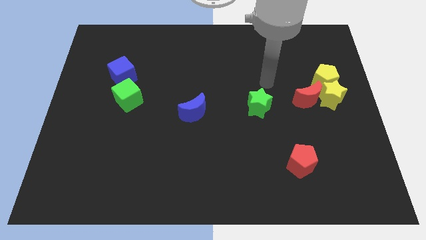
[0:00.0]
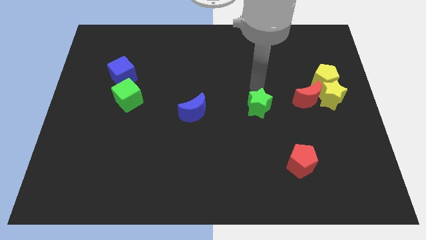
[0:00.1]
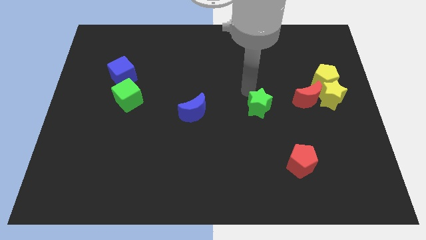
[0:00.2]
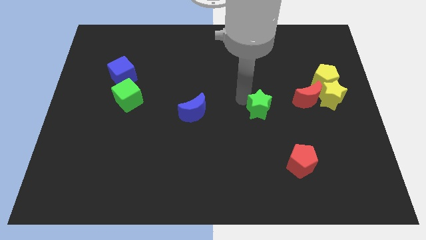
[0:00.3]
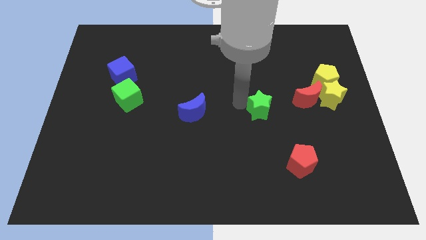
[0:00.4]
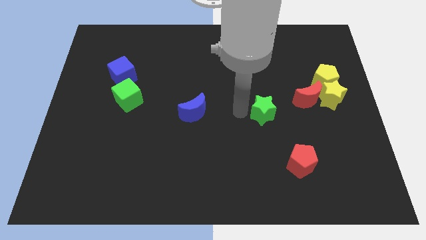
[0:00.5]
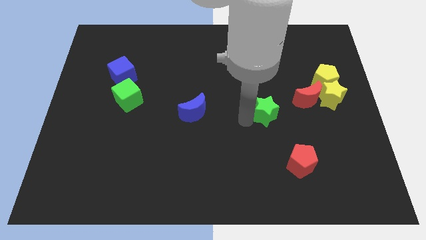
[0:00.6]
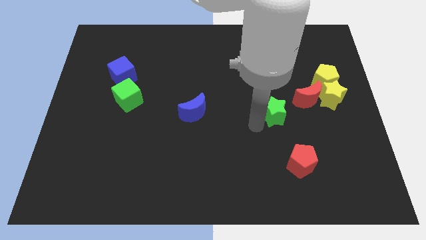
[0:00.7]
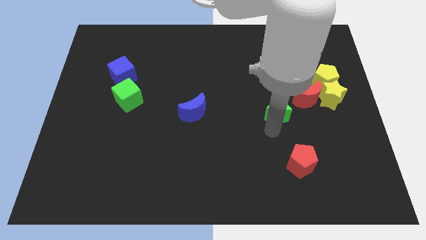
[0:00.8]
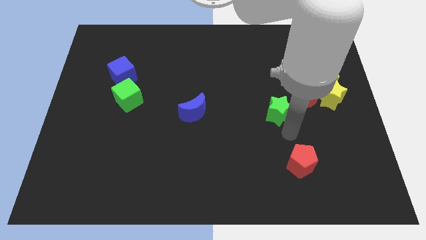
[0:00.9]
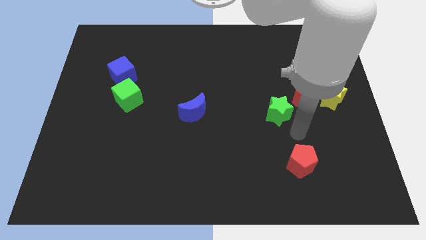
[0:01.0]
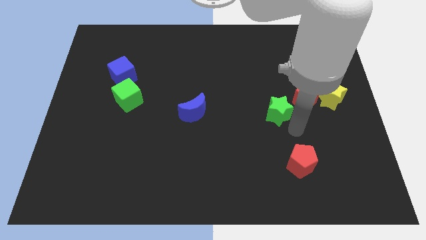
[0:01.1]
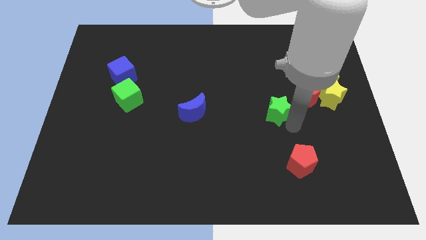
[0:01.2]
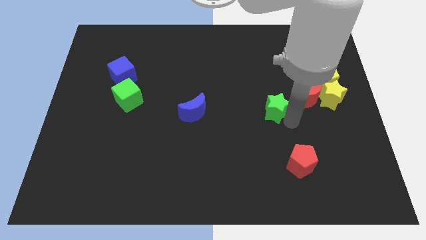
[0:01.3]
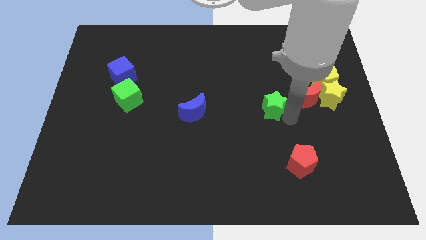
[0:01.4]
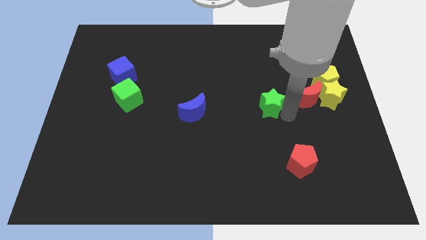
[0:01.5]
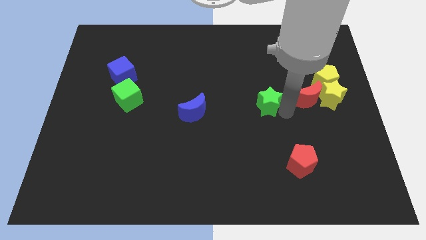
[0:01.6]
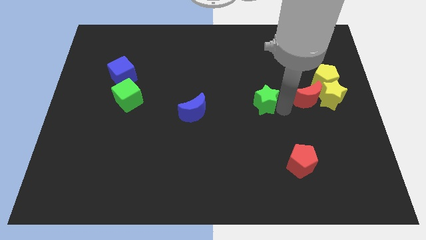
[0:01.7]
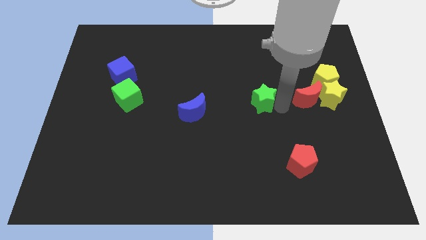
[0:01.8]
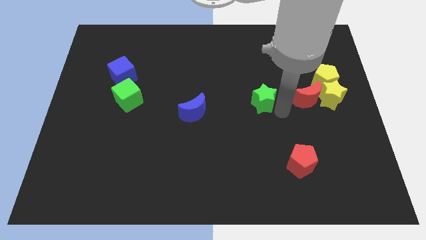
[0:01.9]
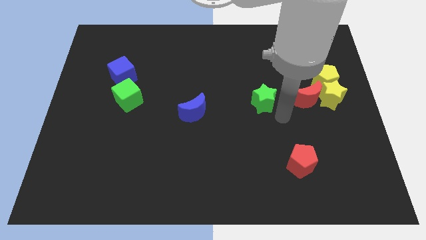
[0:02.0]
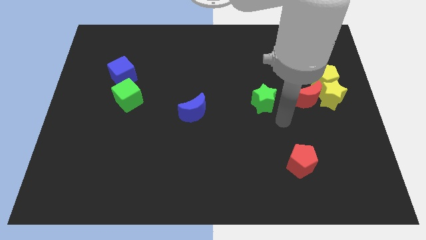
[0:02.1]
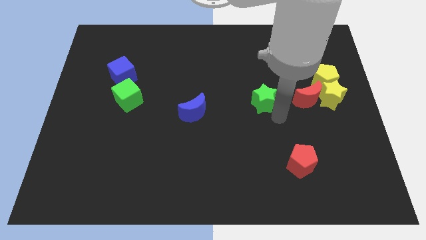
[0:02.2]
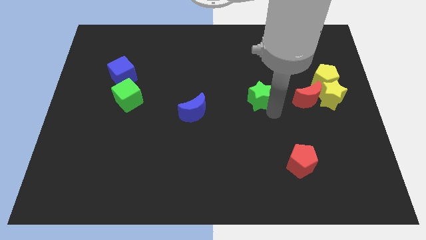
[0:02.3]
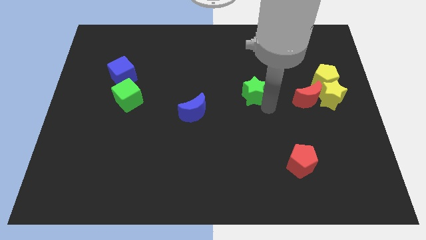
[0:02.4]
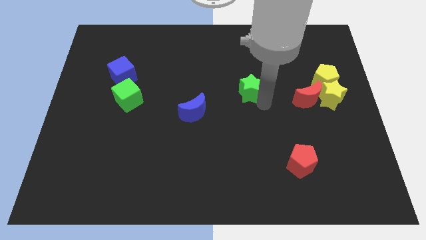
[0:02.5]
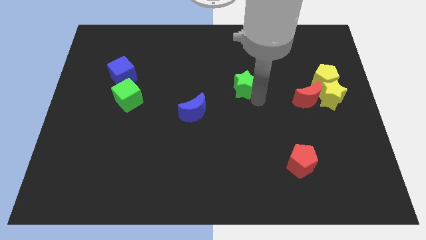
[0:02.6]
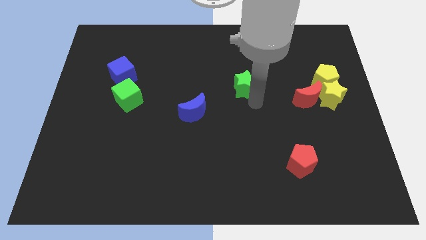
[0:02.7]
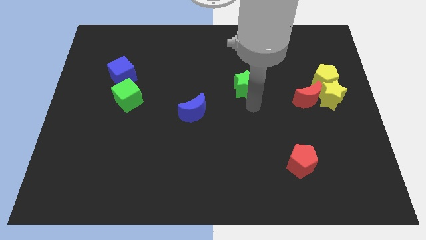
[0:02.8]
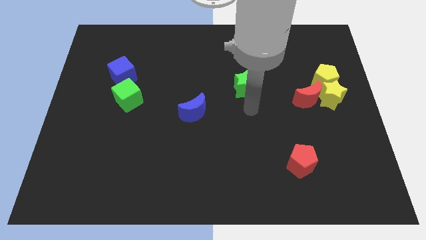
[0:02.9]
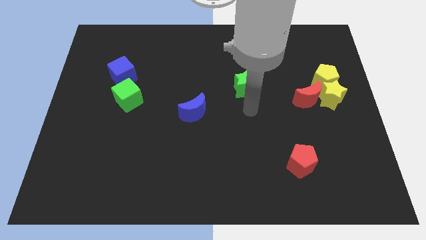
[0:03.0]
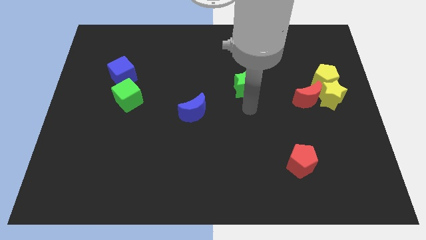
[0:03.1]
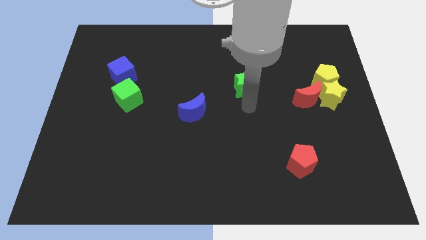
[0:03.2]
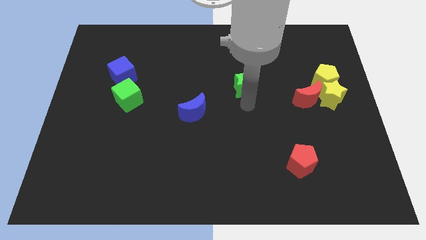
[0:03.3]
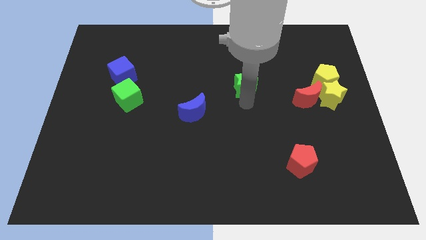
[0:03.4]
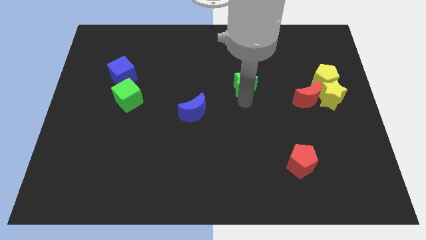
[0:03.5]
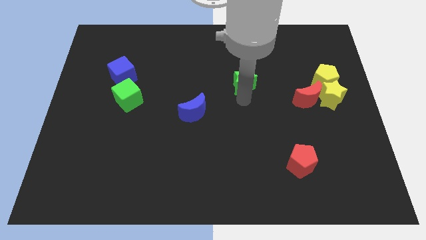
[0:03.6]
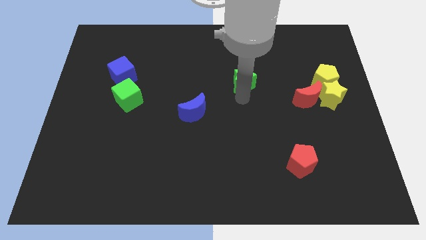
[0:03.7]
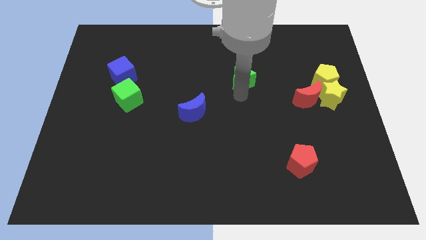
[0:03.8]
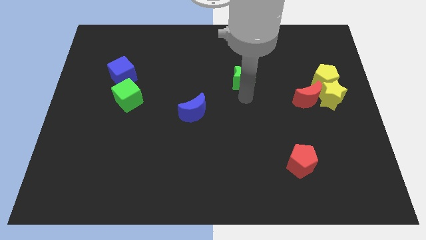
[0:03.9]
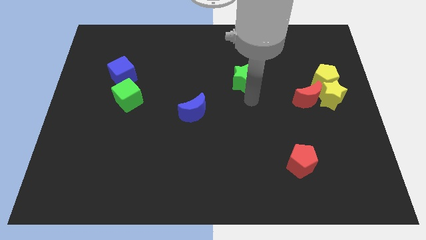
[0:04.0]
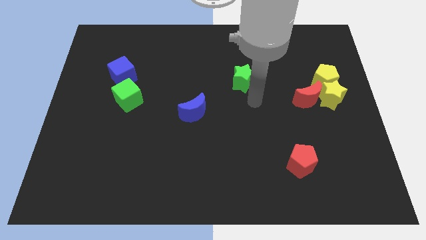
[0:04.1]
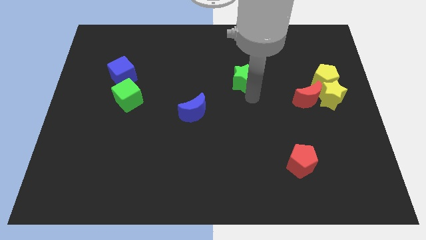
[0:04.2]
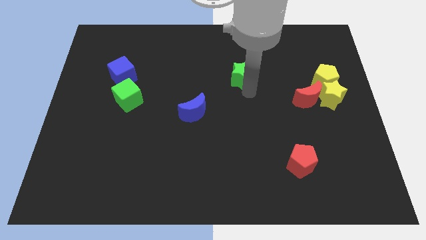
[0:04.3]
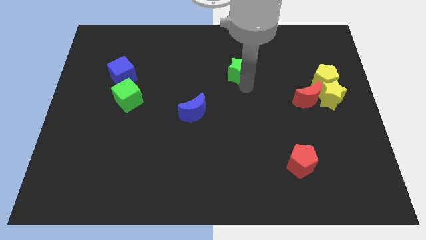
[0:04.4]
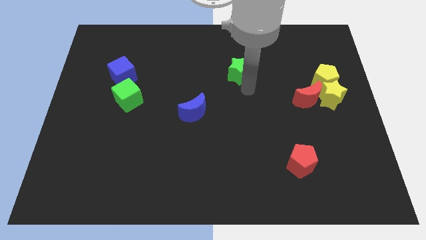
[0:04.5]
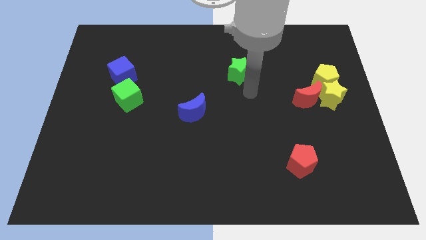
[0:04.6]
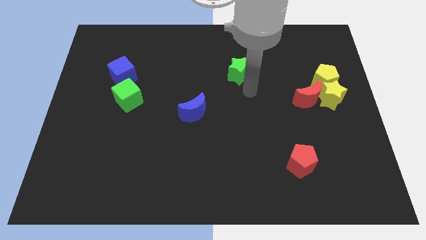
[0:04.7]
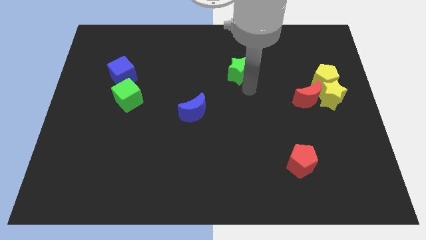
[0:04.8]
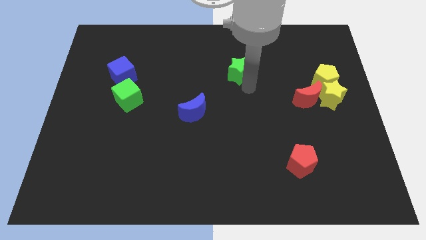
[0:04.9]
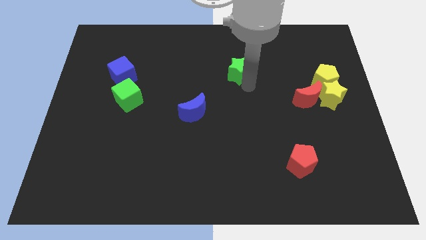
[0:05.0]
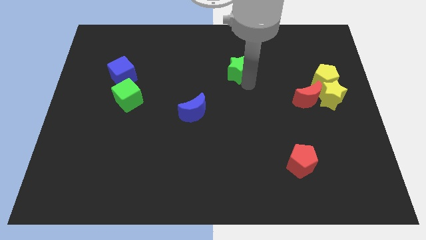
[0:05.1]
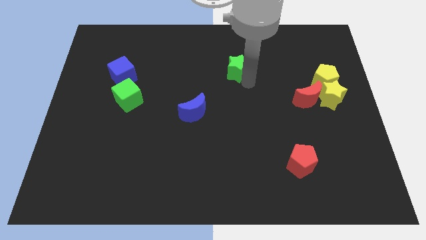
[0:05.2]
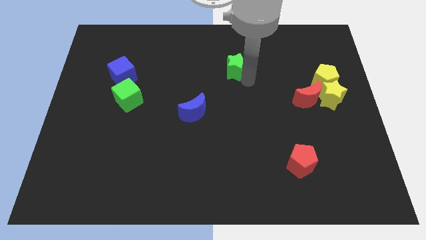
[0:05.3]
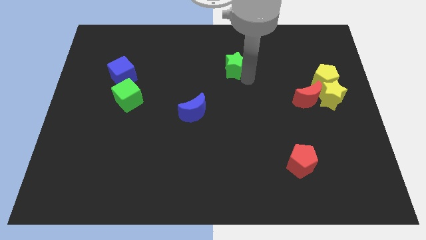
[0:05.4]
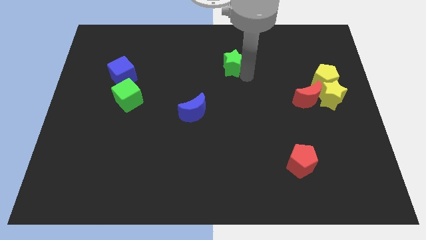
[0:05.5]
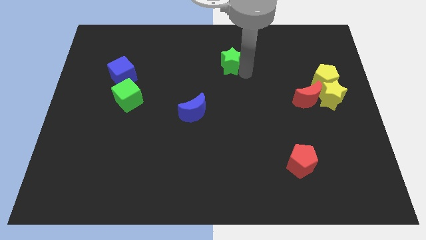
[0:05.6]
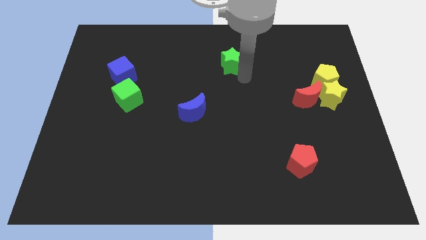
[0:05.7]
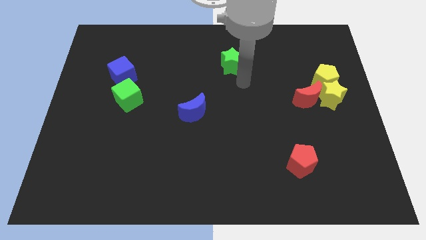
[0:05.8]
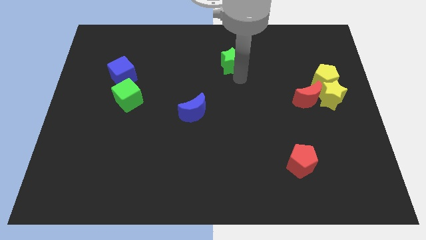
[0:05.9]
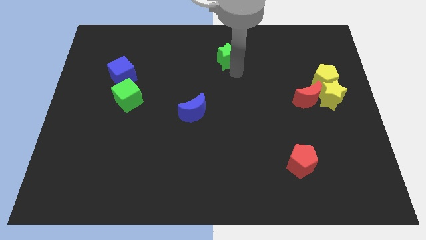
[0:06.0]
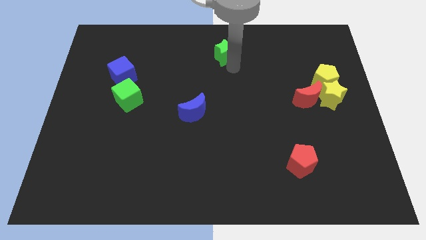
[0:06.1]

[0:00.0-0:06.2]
push the green star to the top

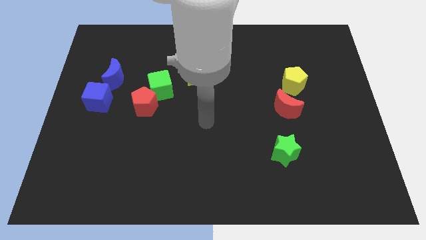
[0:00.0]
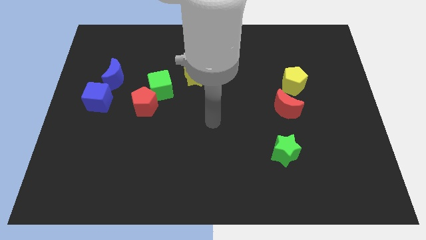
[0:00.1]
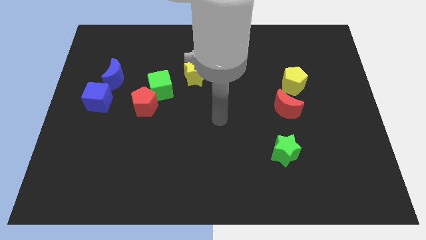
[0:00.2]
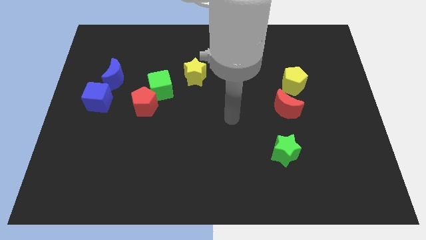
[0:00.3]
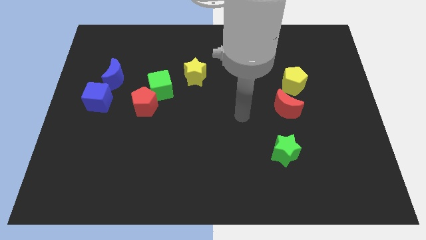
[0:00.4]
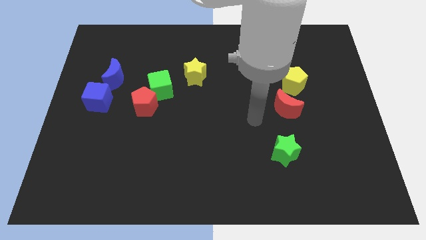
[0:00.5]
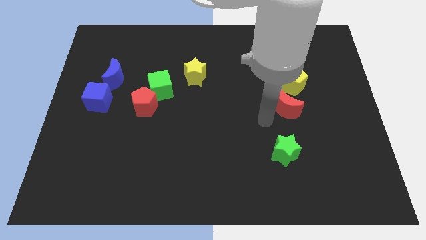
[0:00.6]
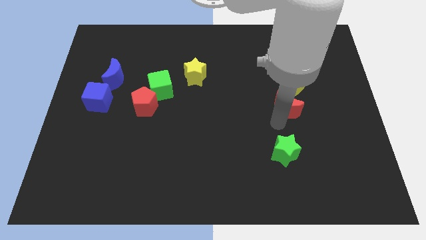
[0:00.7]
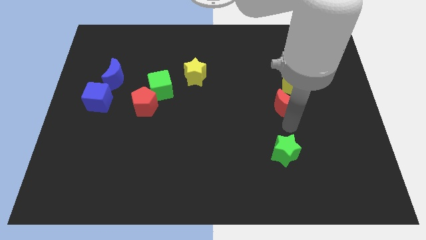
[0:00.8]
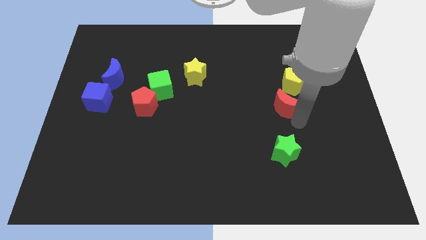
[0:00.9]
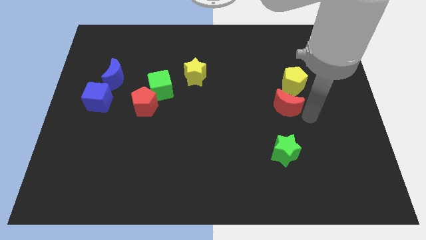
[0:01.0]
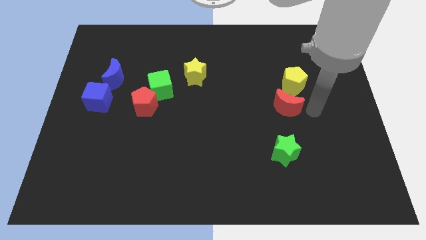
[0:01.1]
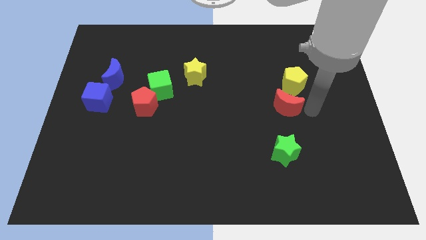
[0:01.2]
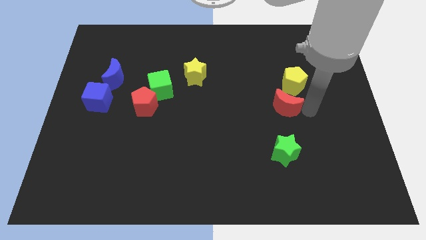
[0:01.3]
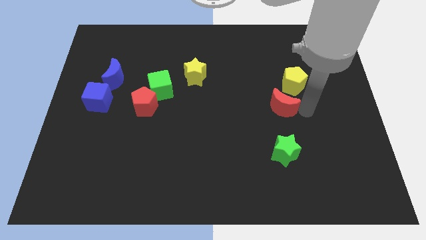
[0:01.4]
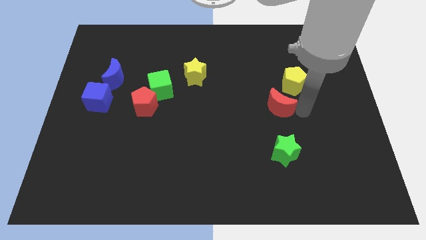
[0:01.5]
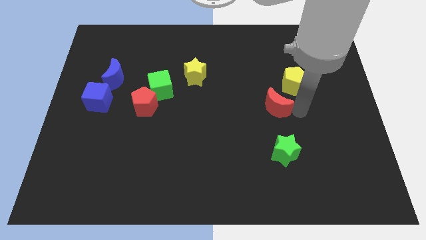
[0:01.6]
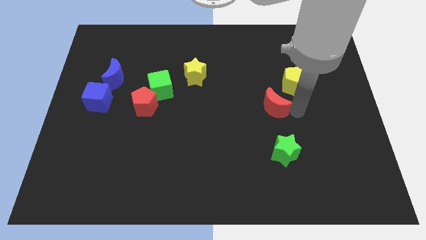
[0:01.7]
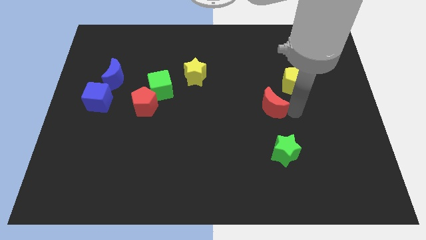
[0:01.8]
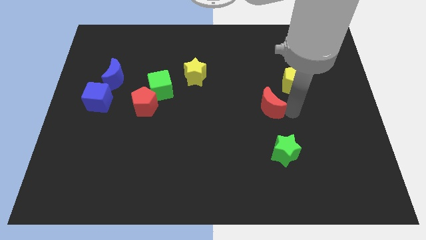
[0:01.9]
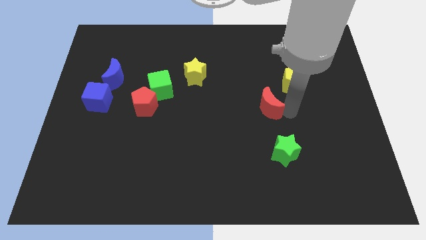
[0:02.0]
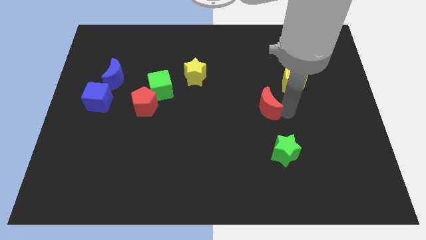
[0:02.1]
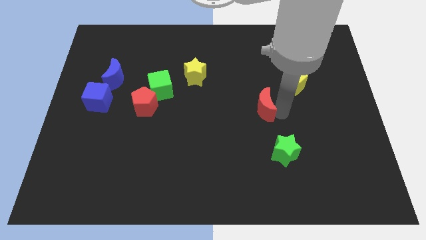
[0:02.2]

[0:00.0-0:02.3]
put the red moon to the center of the board
